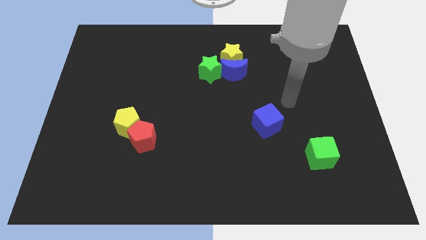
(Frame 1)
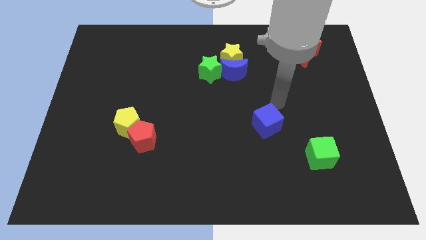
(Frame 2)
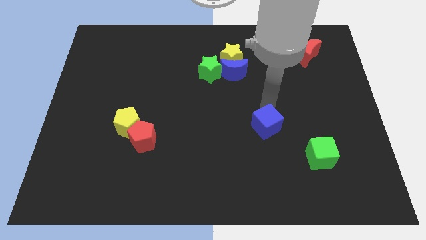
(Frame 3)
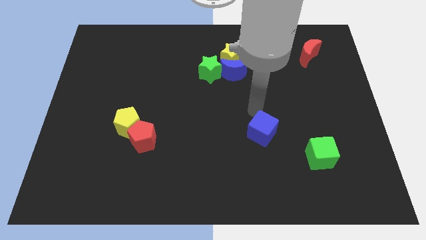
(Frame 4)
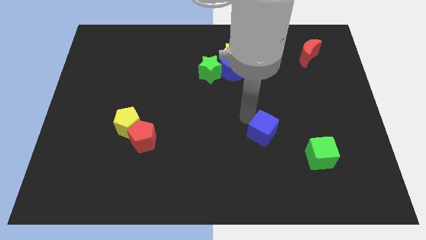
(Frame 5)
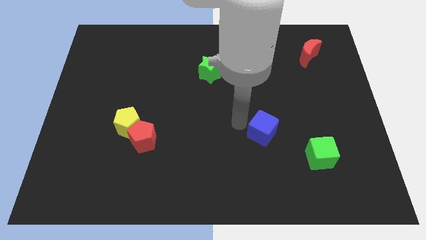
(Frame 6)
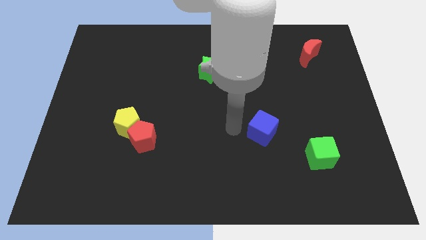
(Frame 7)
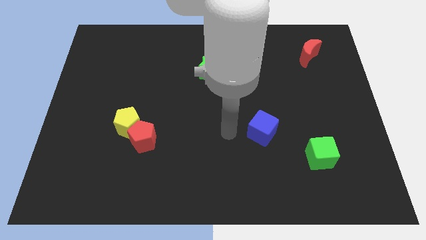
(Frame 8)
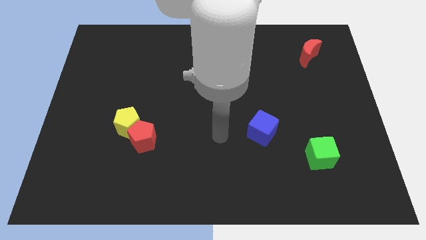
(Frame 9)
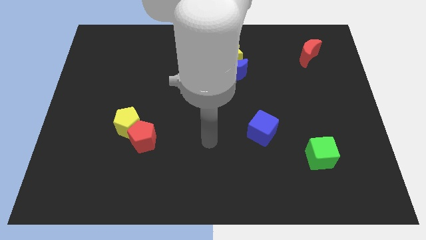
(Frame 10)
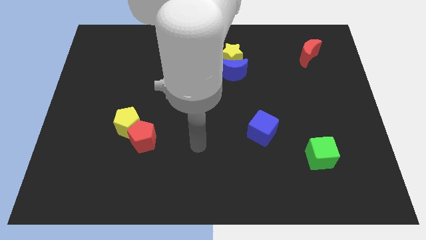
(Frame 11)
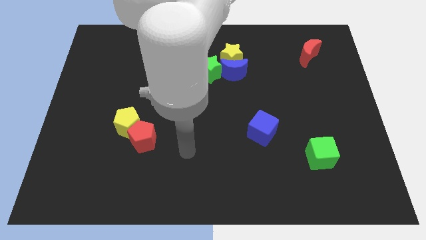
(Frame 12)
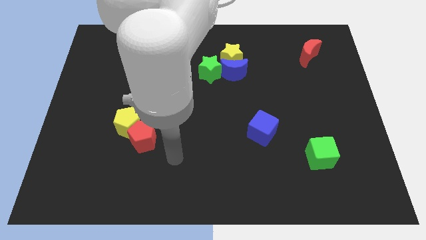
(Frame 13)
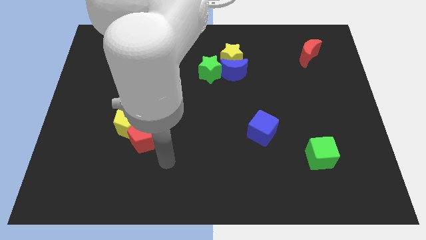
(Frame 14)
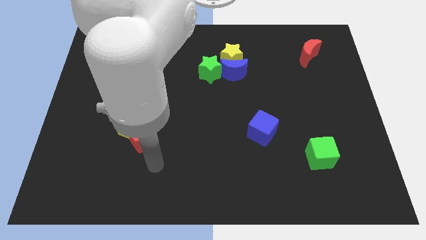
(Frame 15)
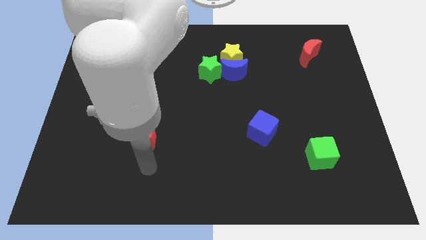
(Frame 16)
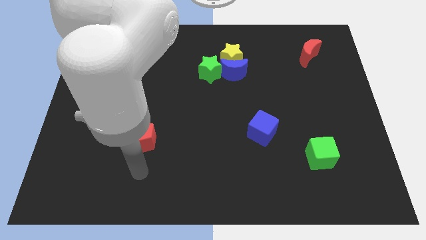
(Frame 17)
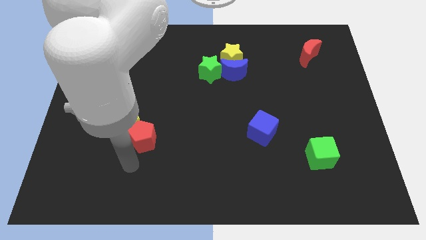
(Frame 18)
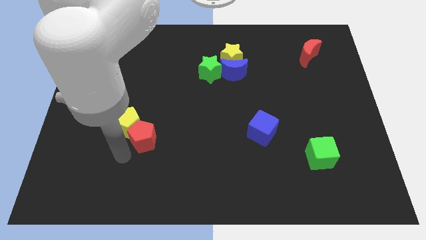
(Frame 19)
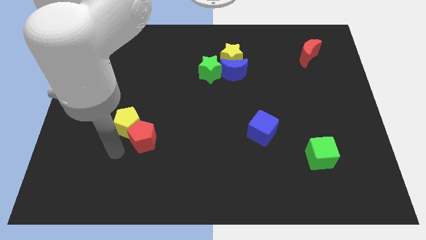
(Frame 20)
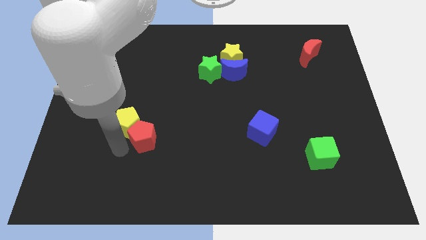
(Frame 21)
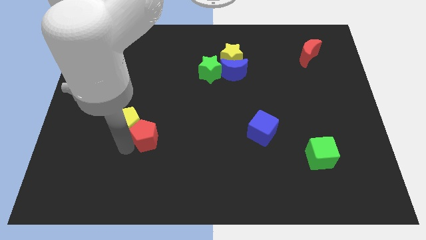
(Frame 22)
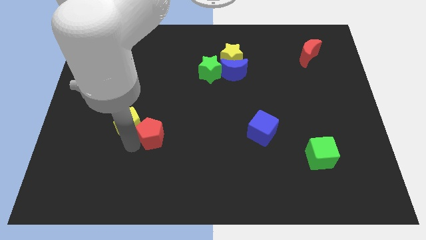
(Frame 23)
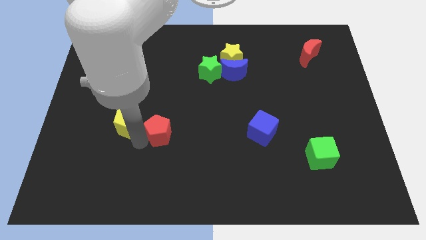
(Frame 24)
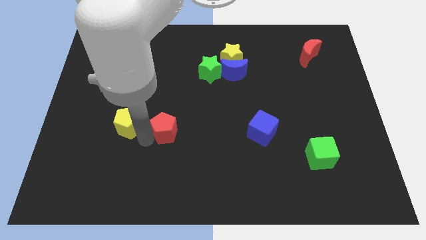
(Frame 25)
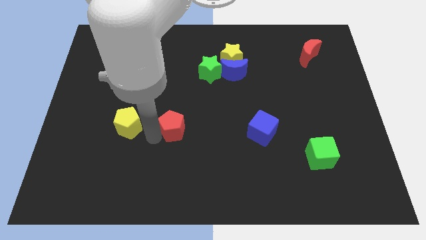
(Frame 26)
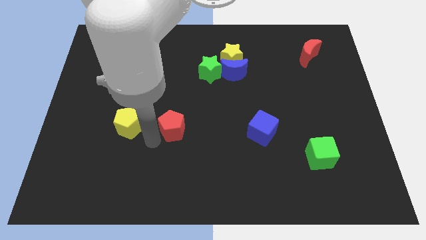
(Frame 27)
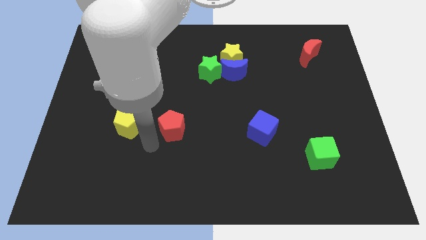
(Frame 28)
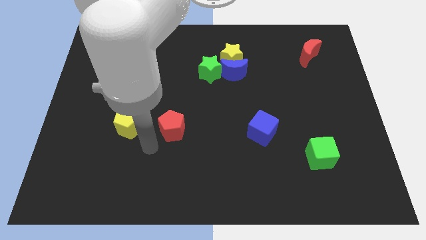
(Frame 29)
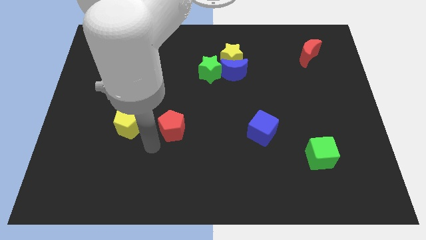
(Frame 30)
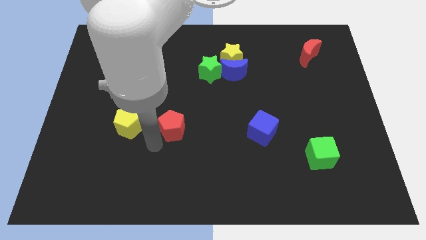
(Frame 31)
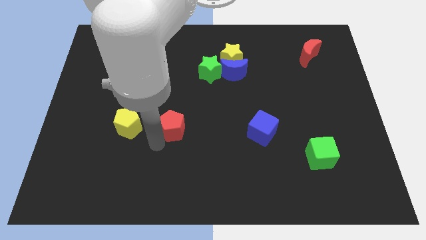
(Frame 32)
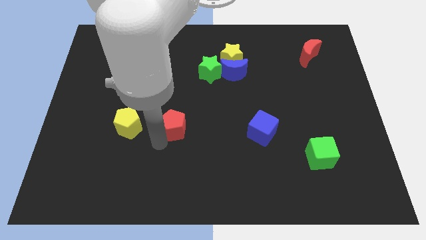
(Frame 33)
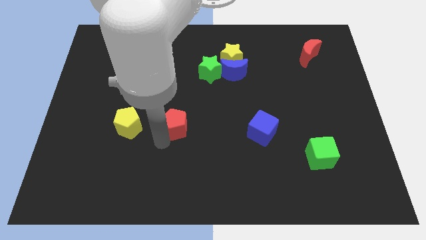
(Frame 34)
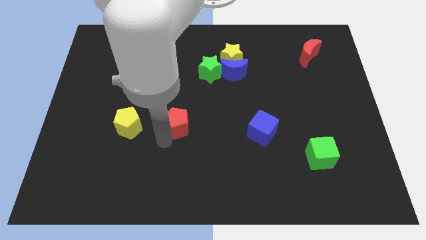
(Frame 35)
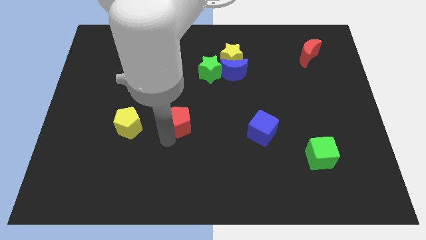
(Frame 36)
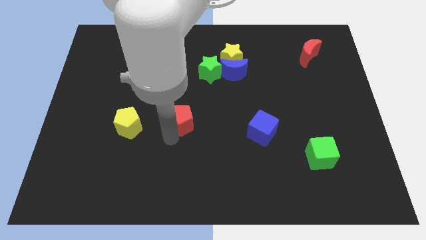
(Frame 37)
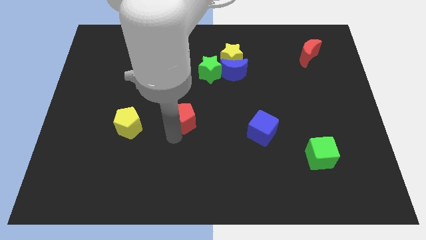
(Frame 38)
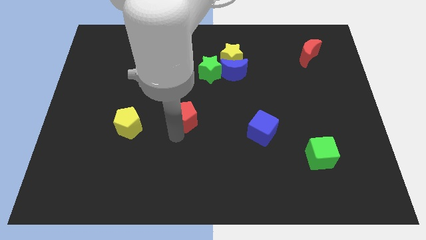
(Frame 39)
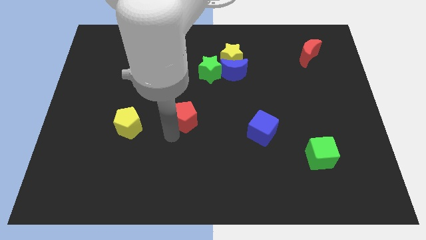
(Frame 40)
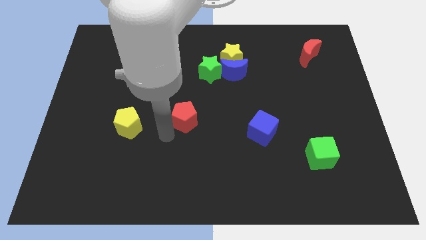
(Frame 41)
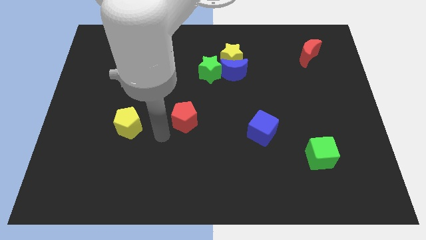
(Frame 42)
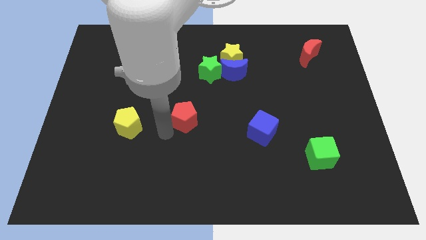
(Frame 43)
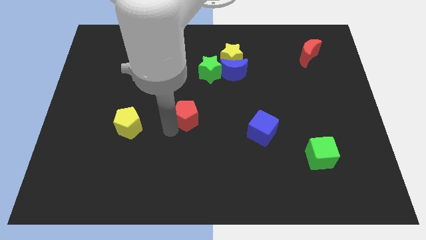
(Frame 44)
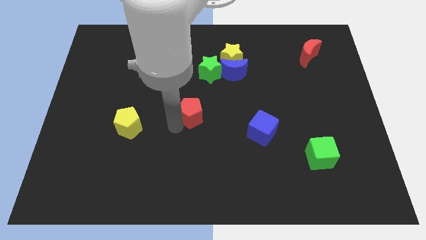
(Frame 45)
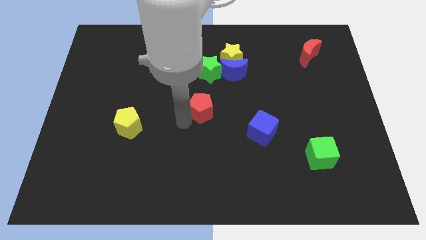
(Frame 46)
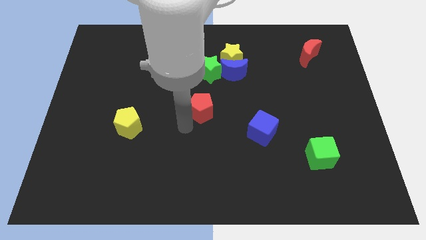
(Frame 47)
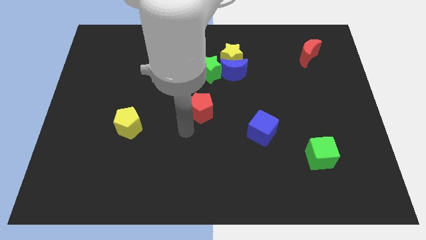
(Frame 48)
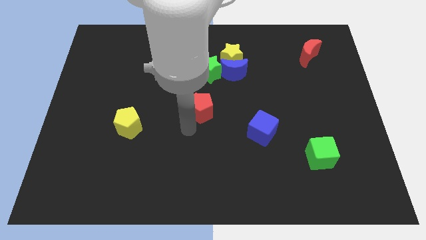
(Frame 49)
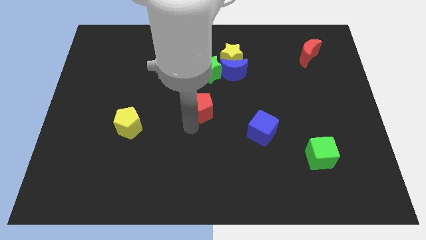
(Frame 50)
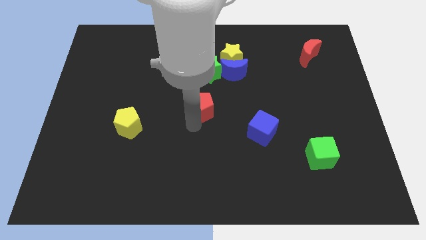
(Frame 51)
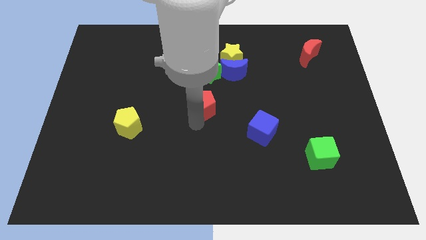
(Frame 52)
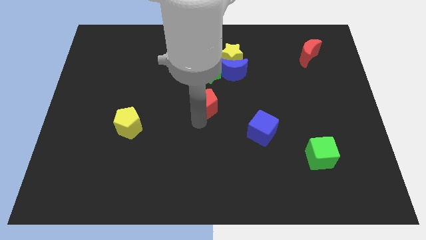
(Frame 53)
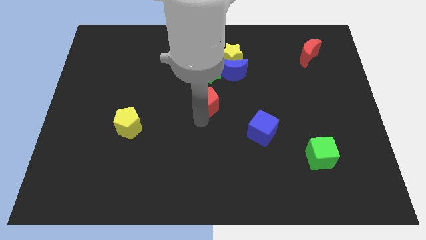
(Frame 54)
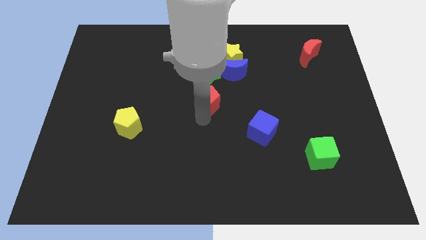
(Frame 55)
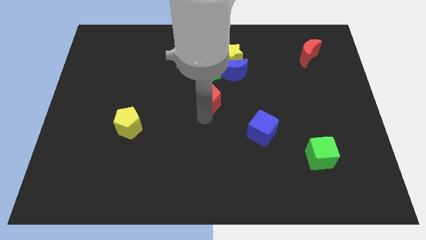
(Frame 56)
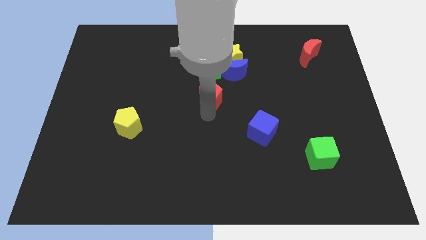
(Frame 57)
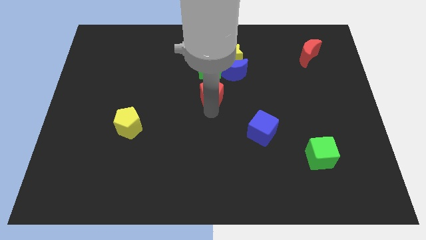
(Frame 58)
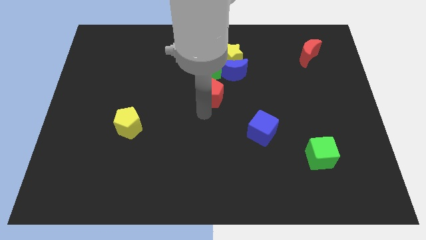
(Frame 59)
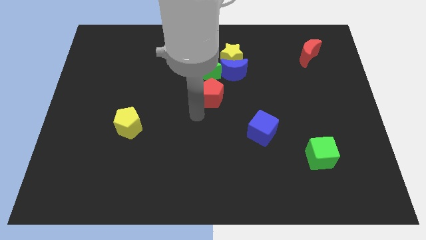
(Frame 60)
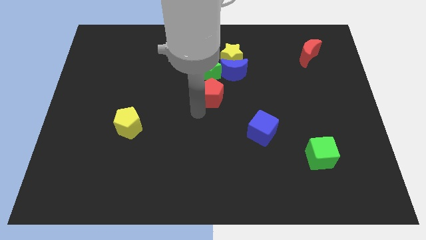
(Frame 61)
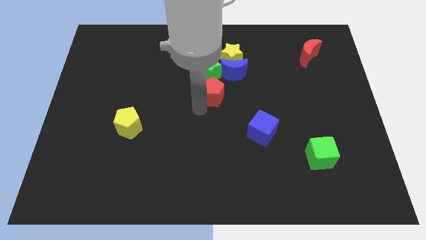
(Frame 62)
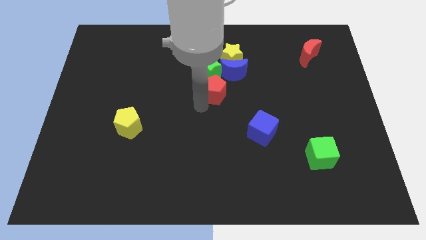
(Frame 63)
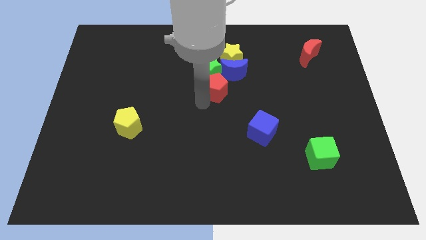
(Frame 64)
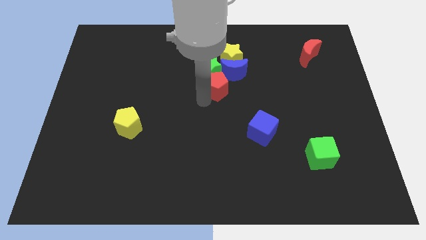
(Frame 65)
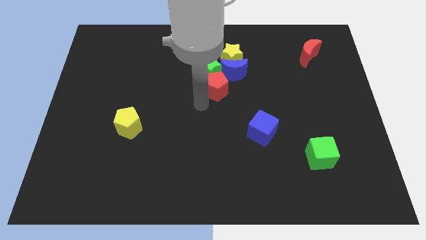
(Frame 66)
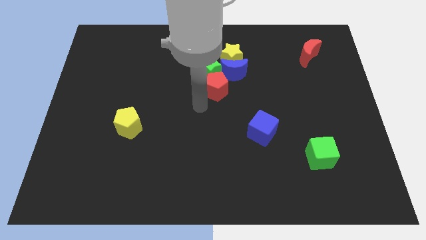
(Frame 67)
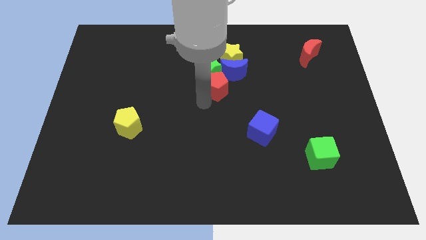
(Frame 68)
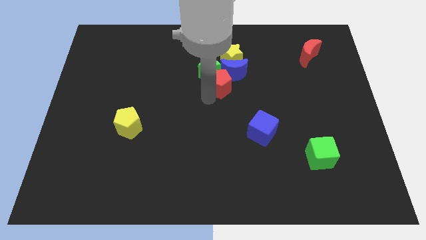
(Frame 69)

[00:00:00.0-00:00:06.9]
slide the red pentagon to the blue moon
